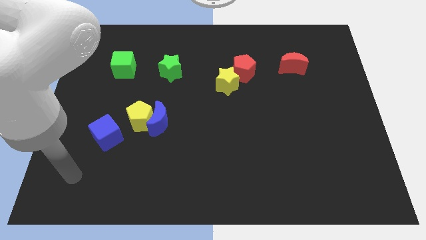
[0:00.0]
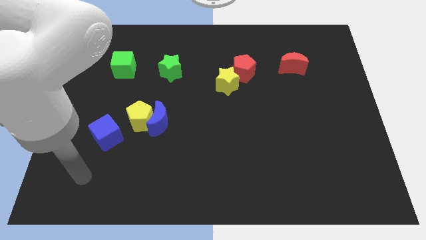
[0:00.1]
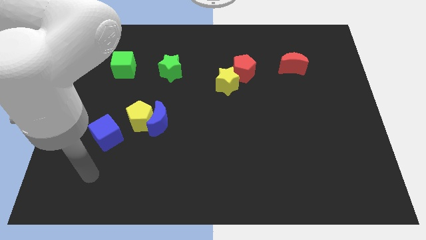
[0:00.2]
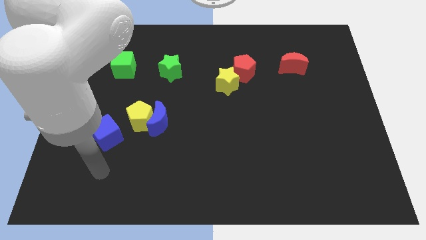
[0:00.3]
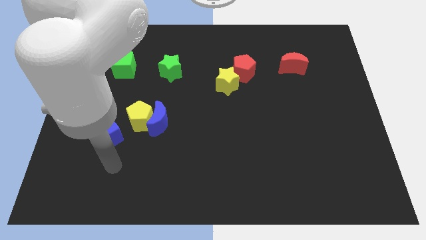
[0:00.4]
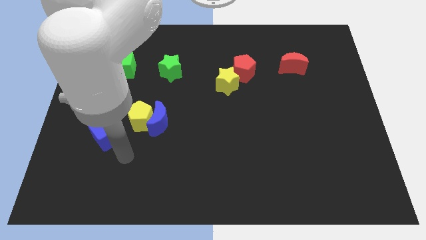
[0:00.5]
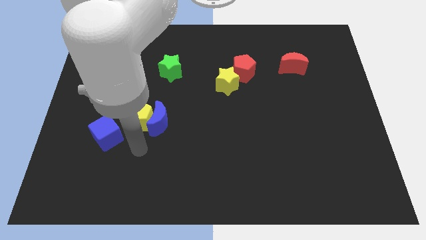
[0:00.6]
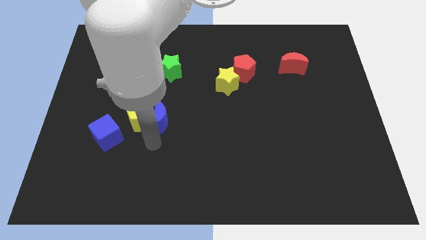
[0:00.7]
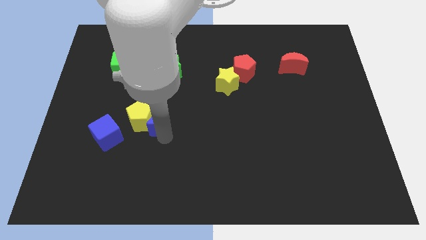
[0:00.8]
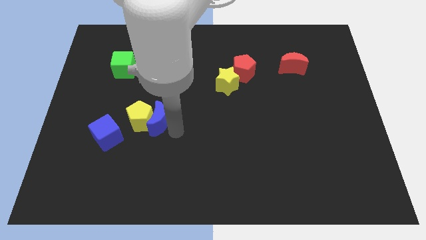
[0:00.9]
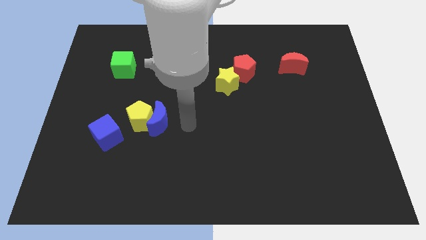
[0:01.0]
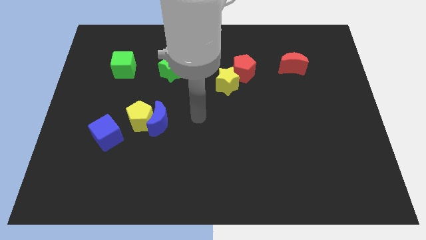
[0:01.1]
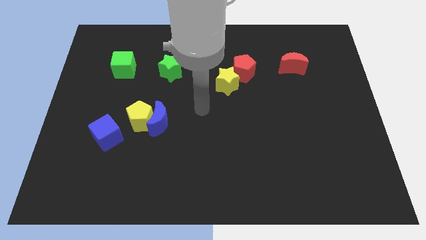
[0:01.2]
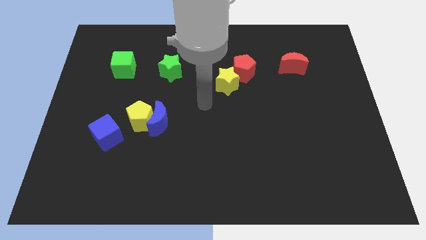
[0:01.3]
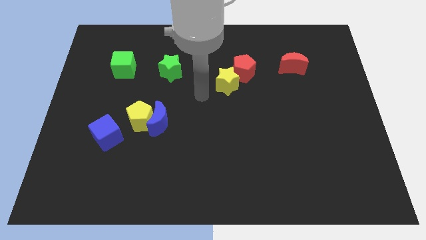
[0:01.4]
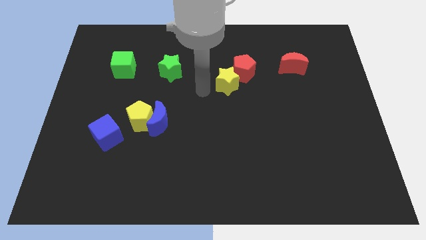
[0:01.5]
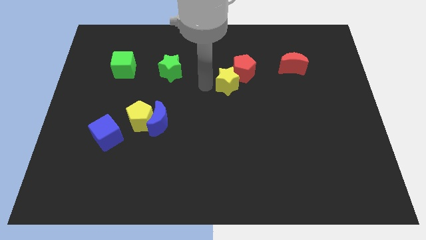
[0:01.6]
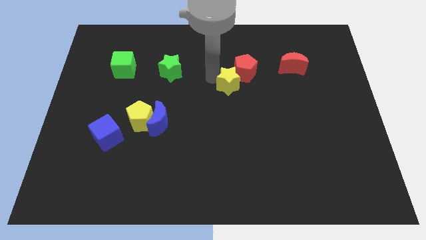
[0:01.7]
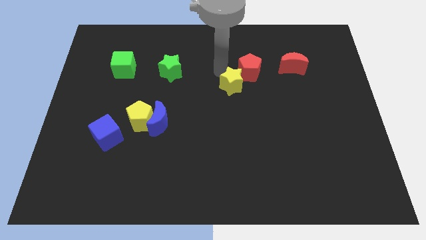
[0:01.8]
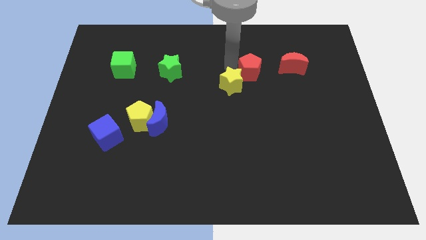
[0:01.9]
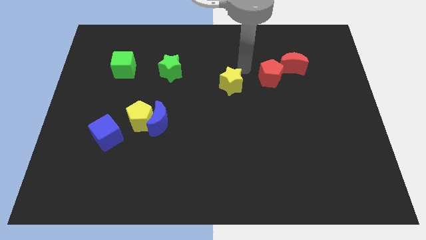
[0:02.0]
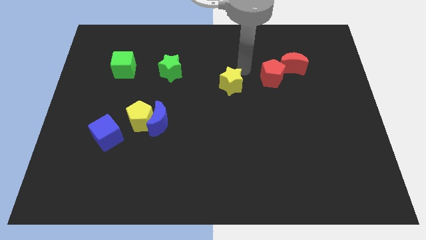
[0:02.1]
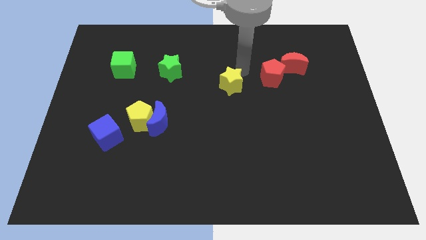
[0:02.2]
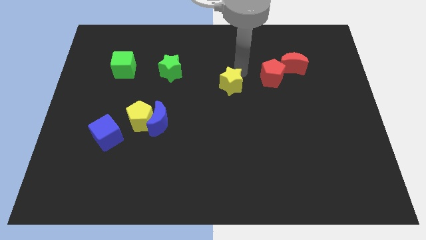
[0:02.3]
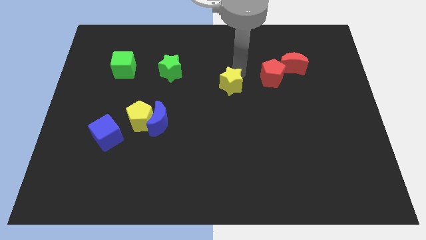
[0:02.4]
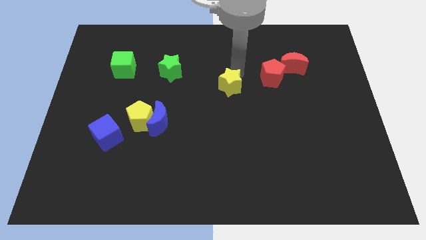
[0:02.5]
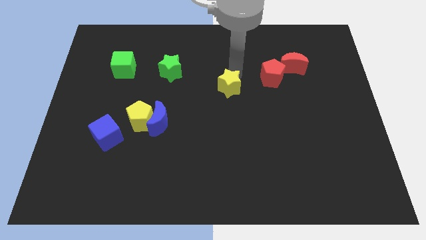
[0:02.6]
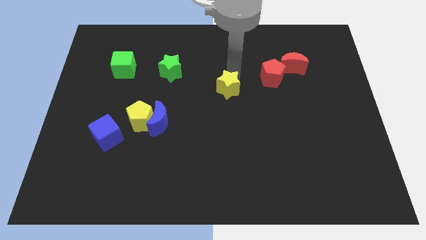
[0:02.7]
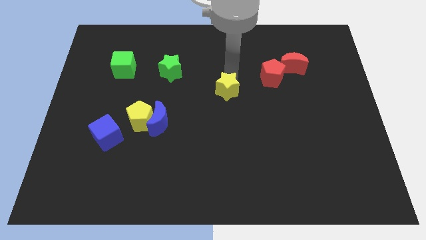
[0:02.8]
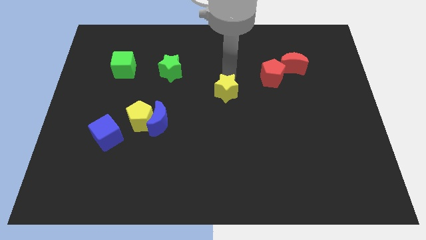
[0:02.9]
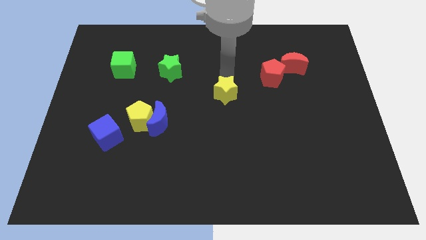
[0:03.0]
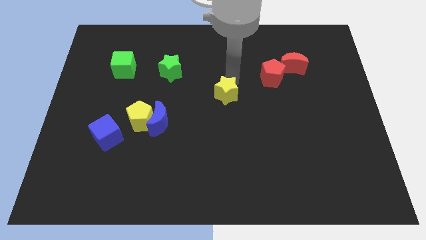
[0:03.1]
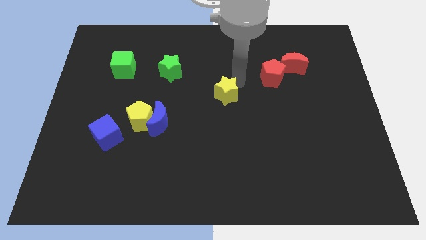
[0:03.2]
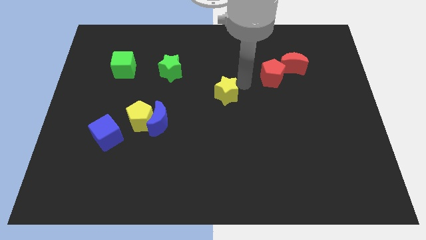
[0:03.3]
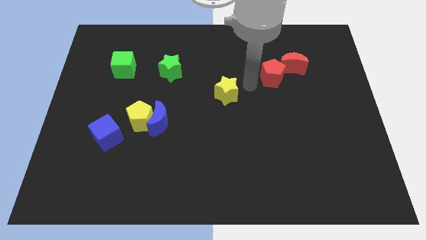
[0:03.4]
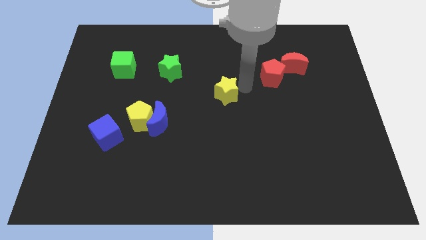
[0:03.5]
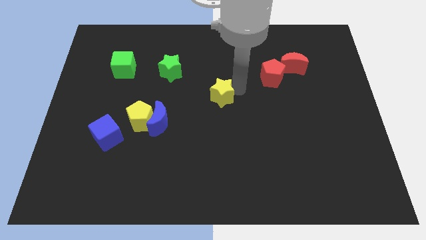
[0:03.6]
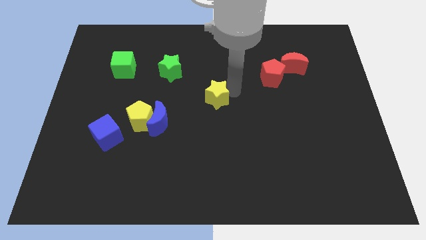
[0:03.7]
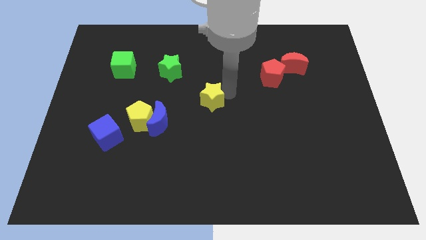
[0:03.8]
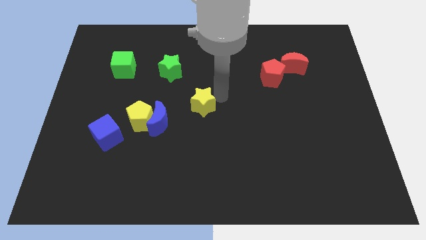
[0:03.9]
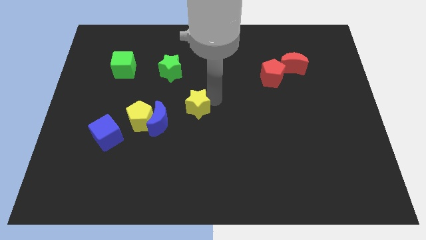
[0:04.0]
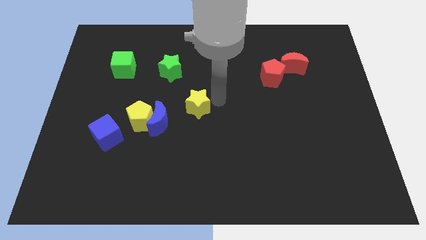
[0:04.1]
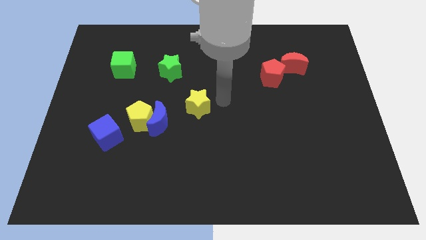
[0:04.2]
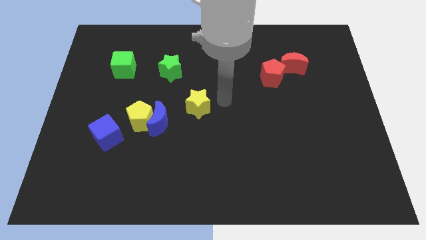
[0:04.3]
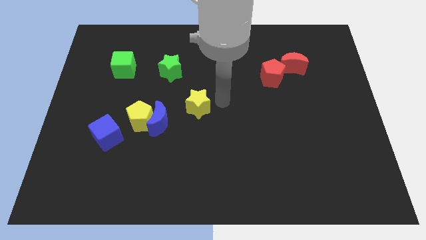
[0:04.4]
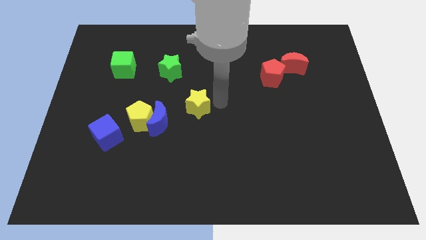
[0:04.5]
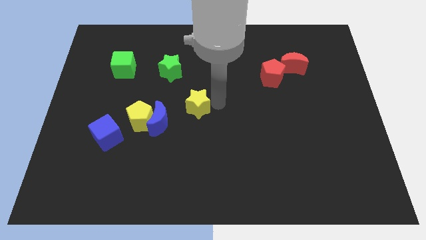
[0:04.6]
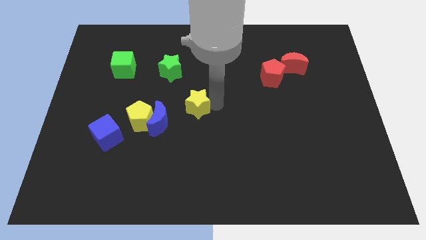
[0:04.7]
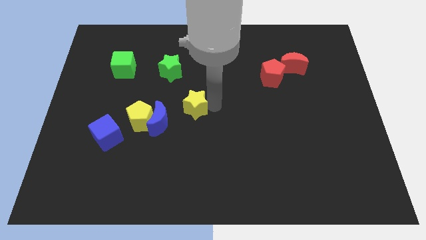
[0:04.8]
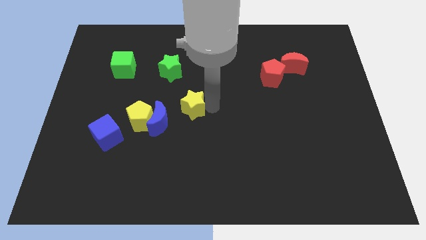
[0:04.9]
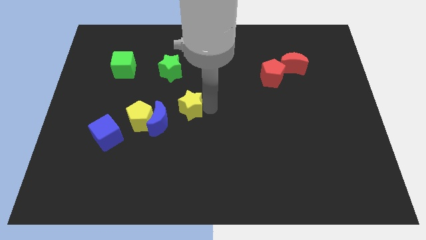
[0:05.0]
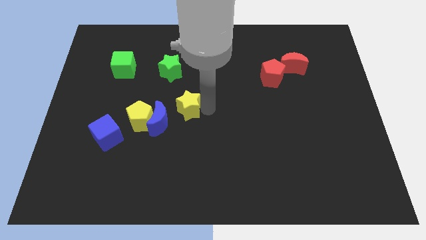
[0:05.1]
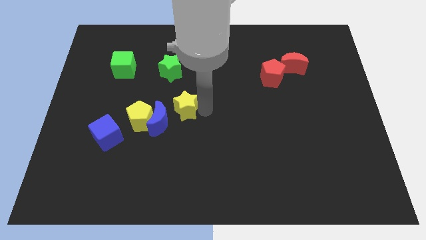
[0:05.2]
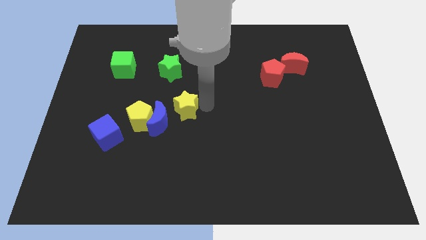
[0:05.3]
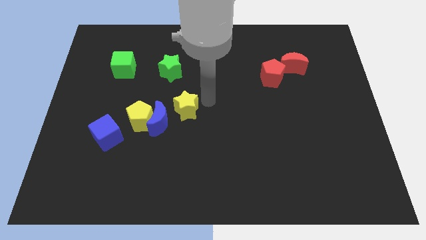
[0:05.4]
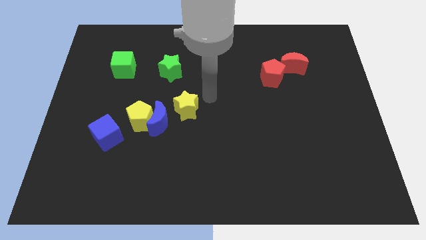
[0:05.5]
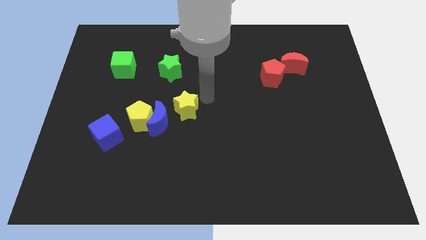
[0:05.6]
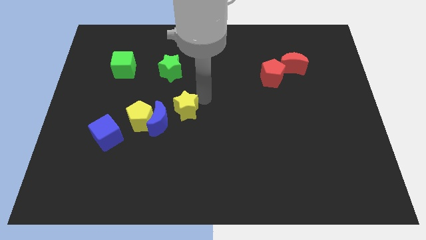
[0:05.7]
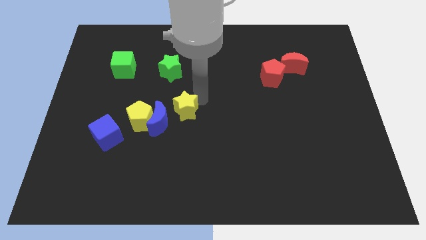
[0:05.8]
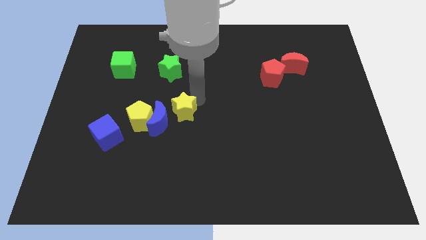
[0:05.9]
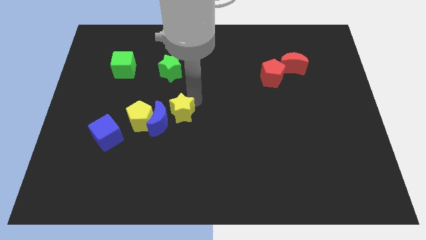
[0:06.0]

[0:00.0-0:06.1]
move the yellow star next to the blue moon

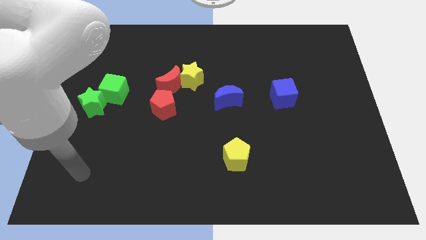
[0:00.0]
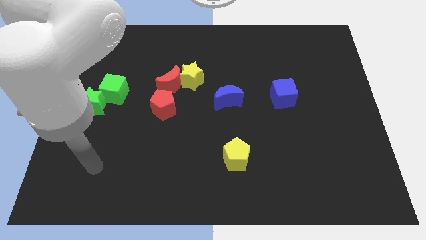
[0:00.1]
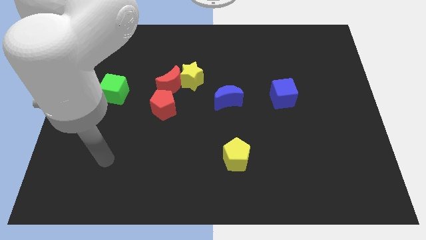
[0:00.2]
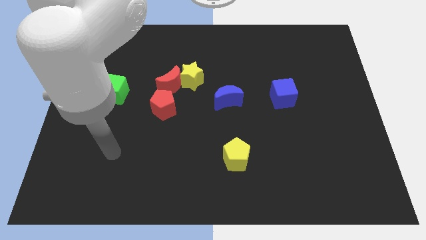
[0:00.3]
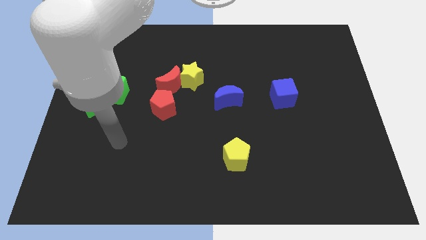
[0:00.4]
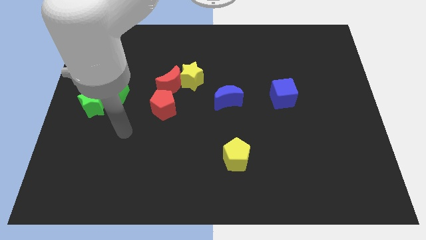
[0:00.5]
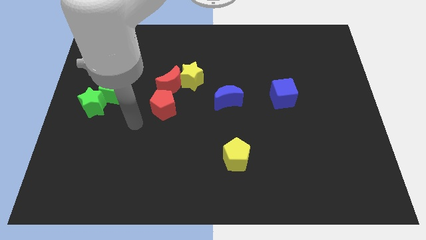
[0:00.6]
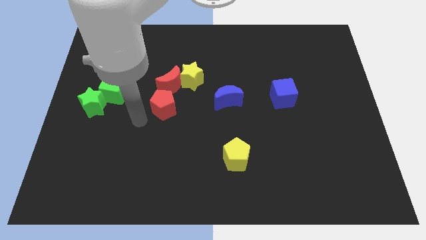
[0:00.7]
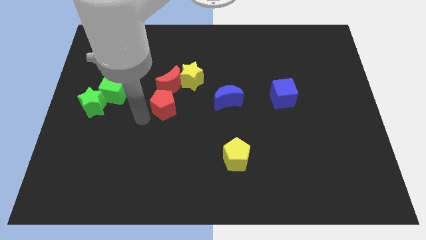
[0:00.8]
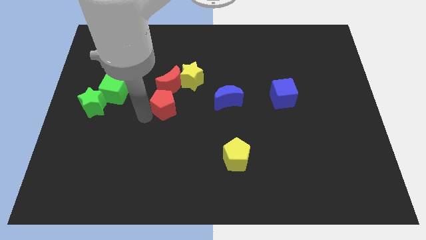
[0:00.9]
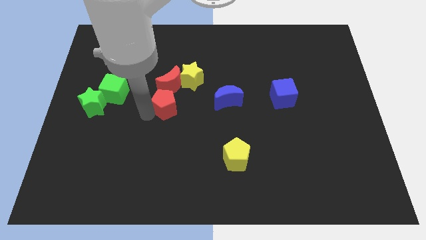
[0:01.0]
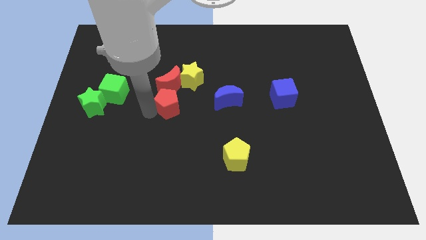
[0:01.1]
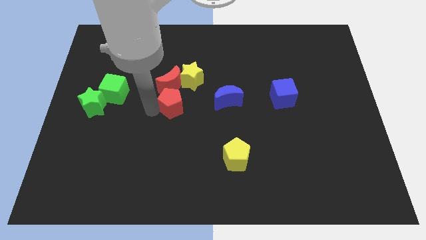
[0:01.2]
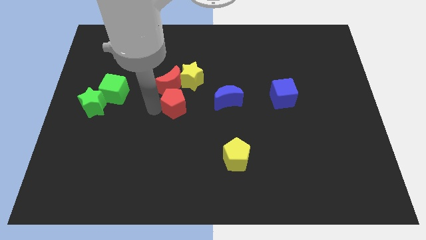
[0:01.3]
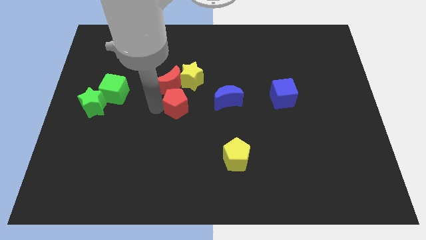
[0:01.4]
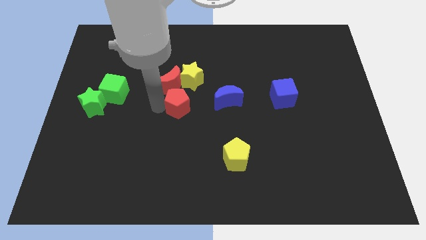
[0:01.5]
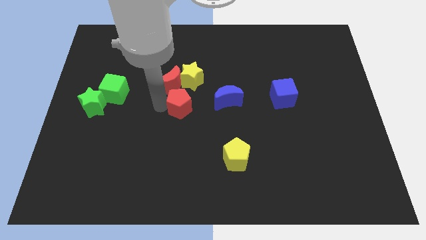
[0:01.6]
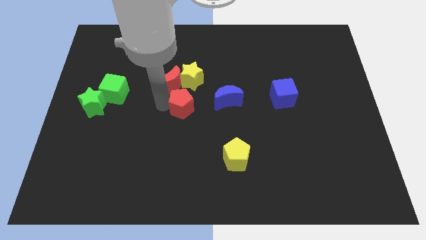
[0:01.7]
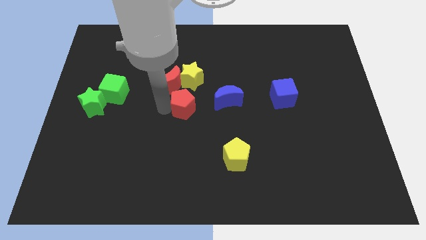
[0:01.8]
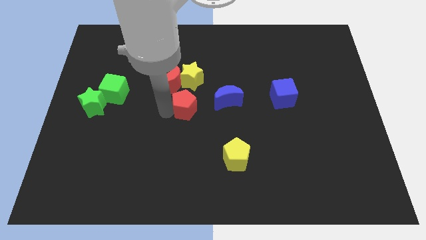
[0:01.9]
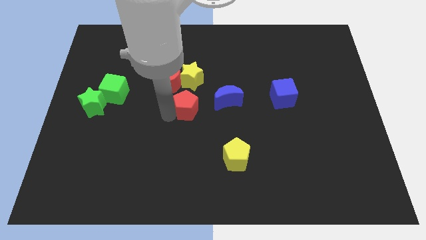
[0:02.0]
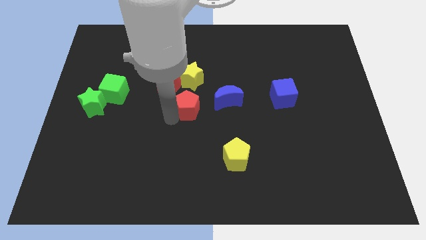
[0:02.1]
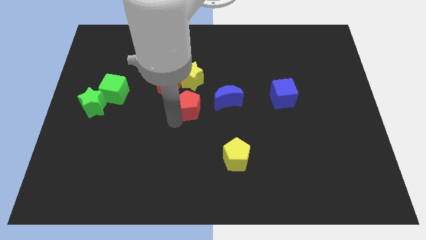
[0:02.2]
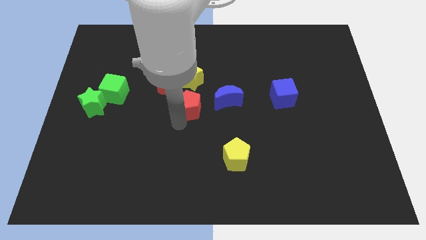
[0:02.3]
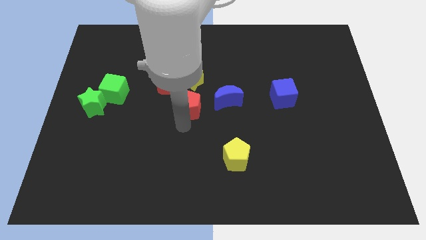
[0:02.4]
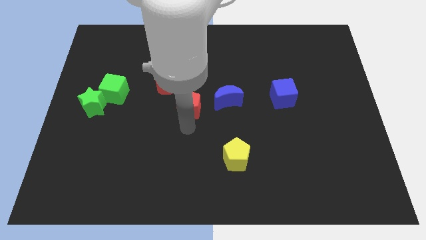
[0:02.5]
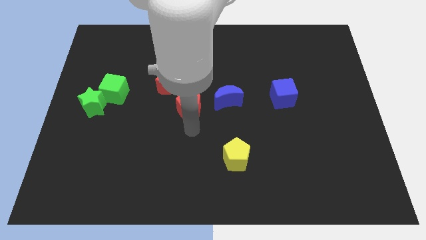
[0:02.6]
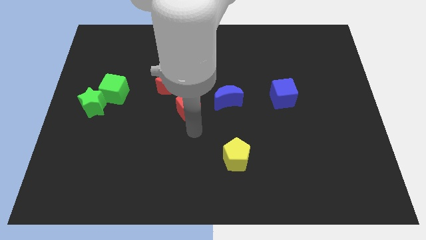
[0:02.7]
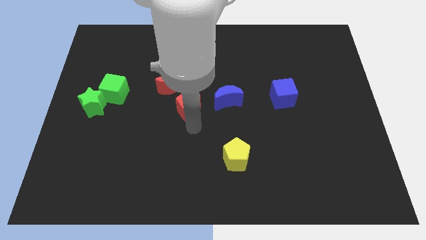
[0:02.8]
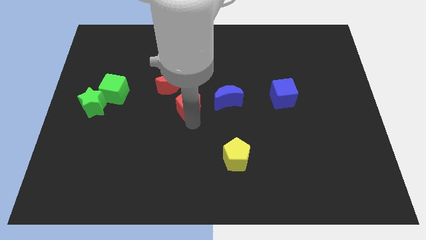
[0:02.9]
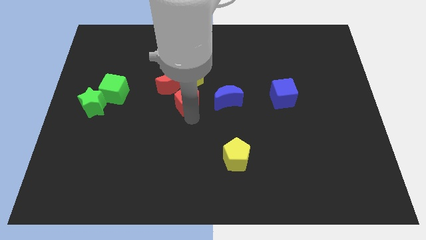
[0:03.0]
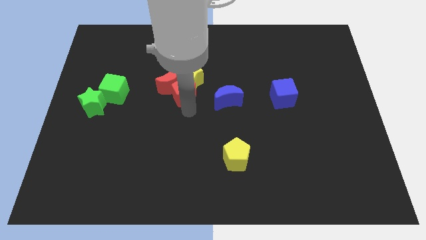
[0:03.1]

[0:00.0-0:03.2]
slide the red pentagon close to the yellow star
